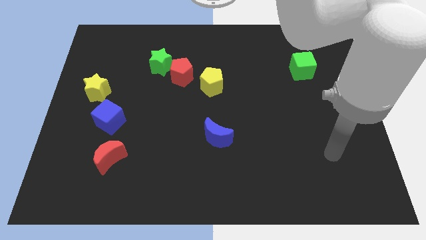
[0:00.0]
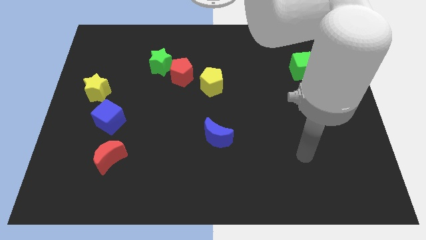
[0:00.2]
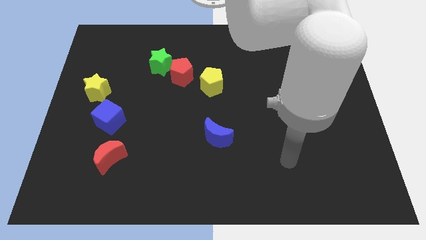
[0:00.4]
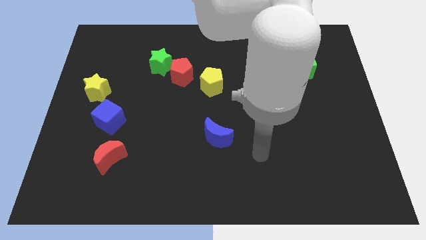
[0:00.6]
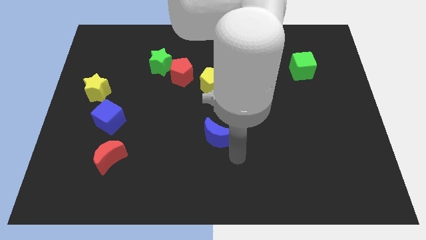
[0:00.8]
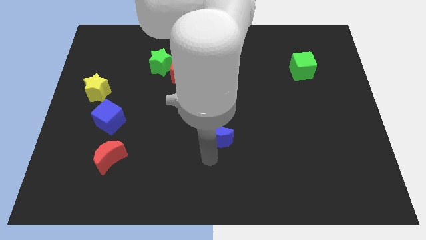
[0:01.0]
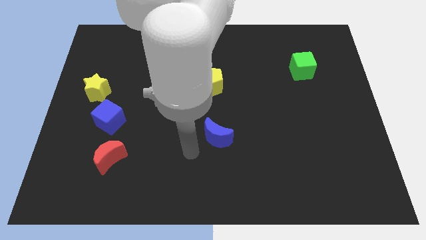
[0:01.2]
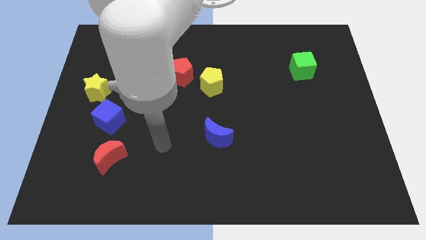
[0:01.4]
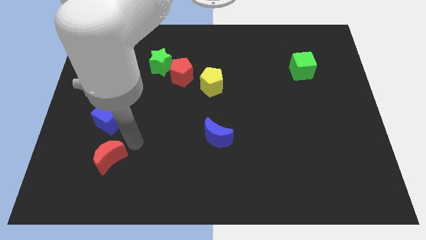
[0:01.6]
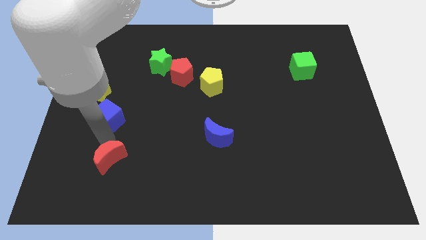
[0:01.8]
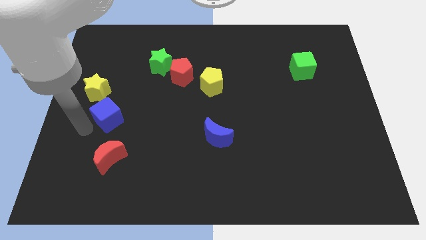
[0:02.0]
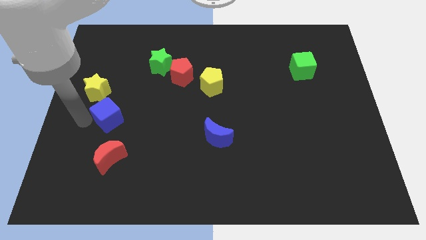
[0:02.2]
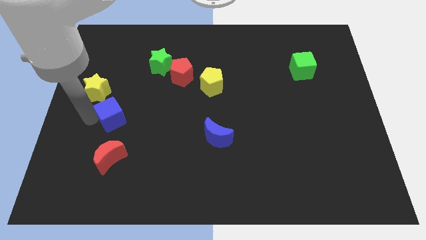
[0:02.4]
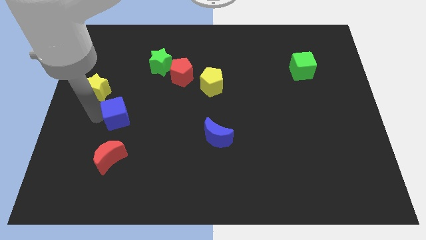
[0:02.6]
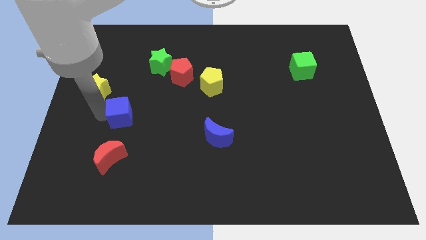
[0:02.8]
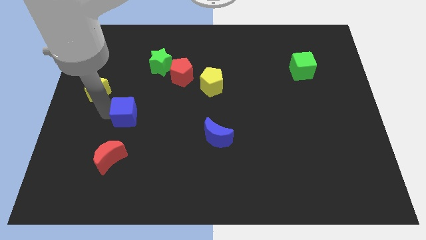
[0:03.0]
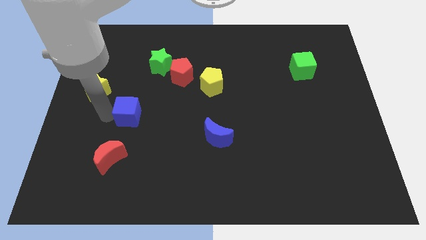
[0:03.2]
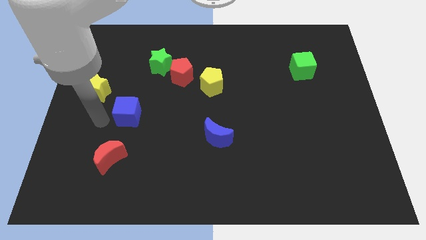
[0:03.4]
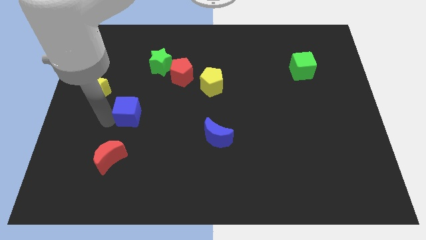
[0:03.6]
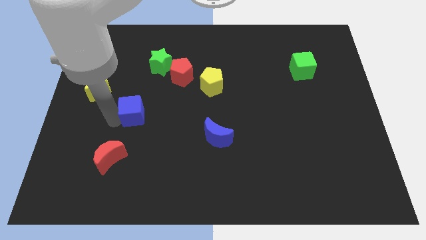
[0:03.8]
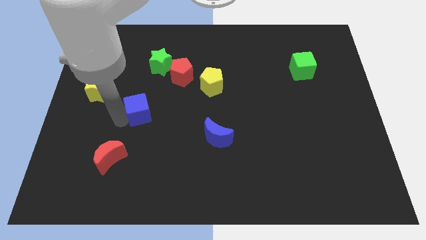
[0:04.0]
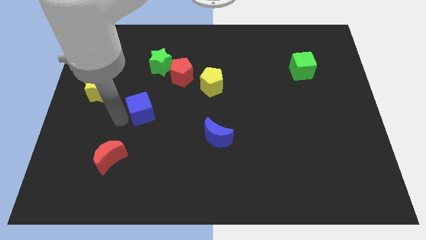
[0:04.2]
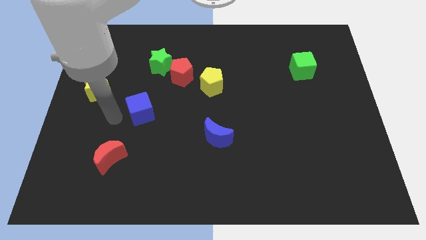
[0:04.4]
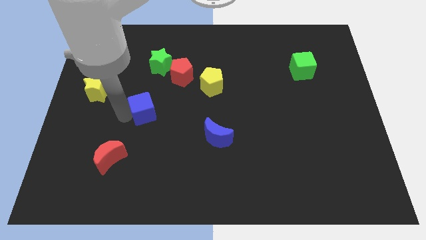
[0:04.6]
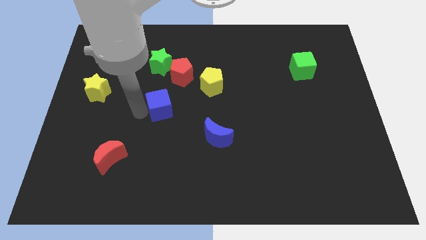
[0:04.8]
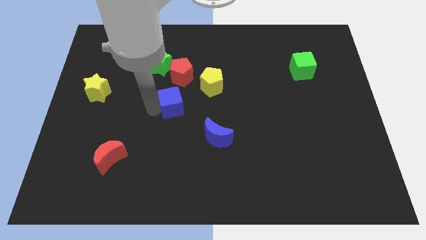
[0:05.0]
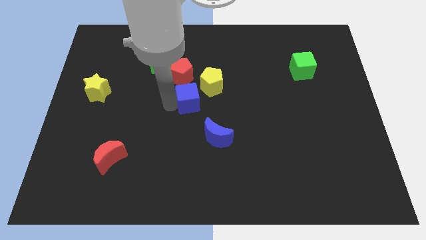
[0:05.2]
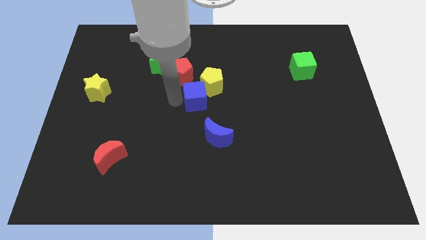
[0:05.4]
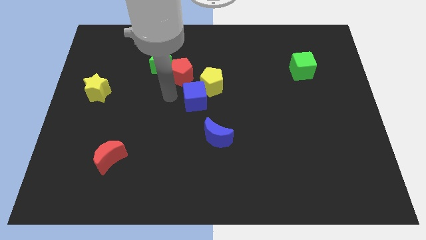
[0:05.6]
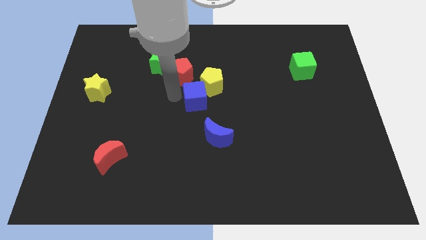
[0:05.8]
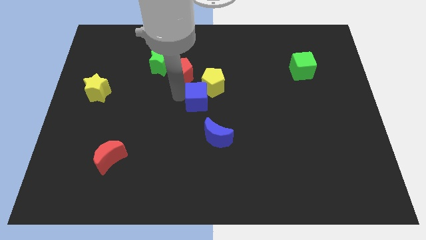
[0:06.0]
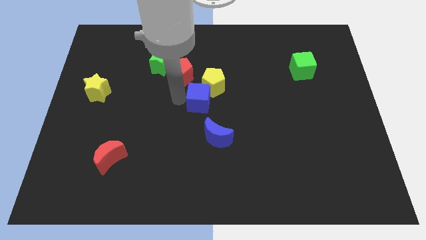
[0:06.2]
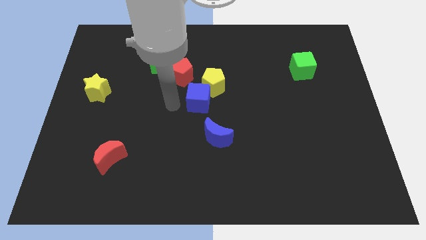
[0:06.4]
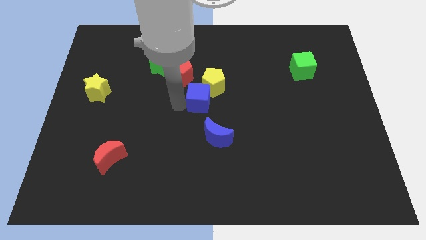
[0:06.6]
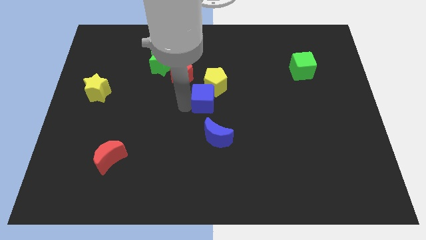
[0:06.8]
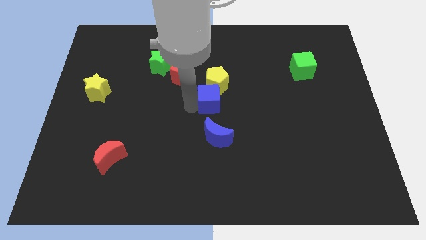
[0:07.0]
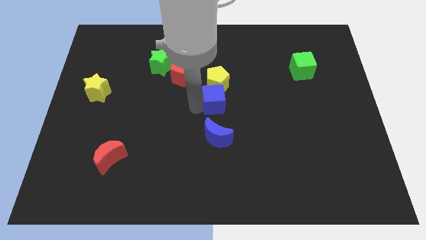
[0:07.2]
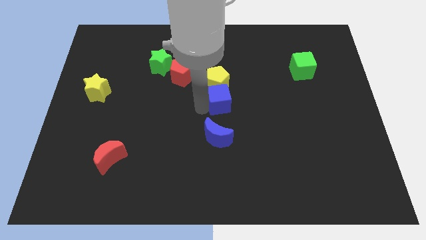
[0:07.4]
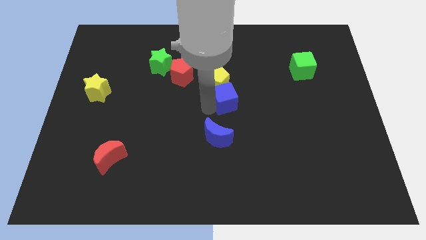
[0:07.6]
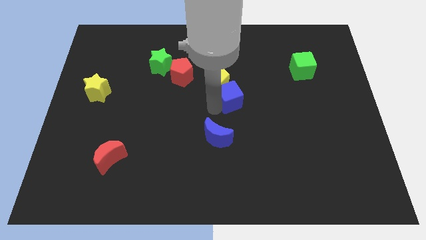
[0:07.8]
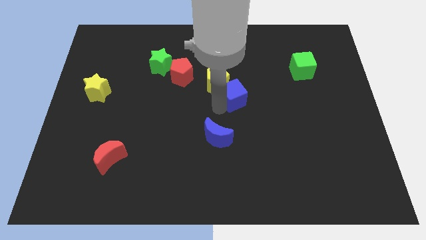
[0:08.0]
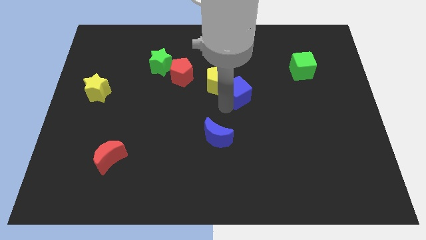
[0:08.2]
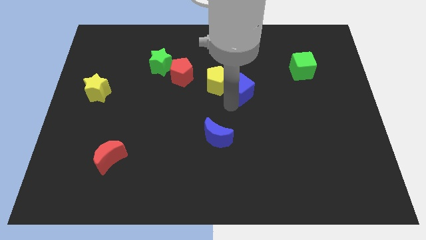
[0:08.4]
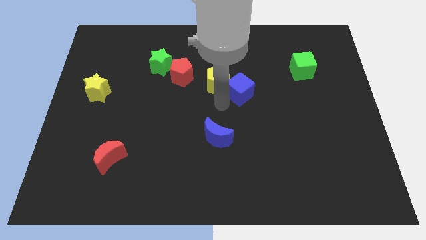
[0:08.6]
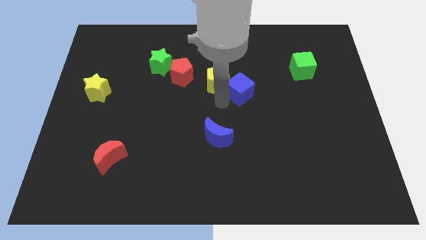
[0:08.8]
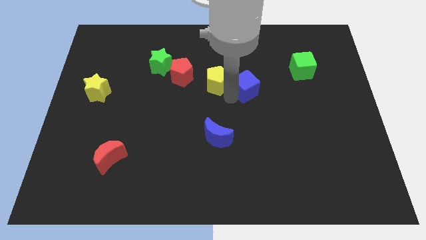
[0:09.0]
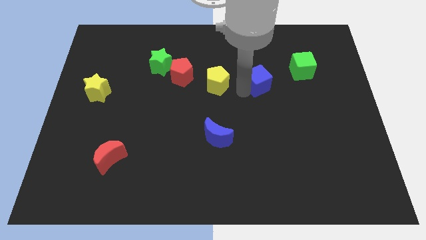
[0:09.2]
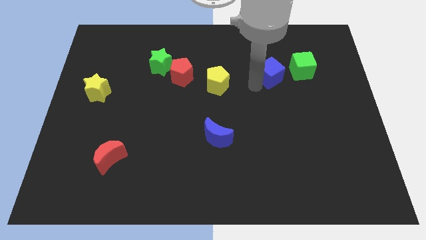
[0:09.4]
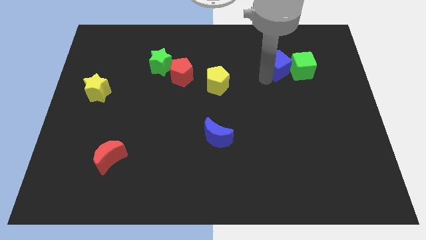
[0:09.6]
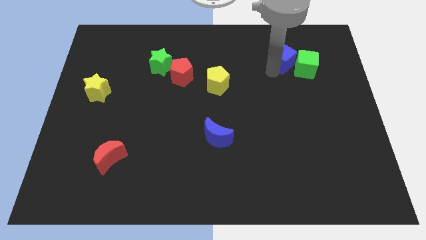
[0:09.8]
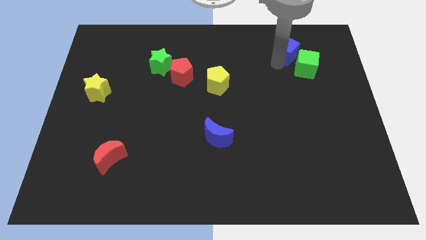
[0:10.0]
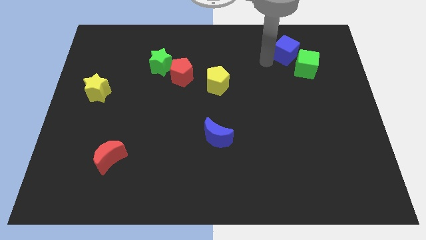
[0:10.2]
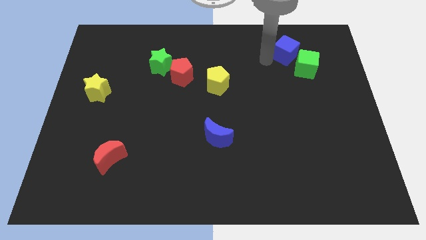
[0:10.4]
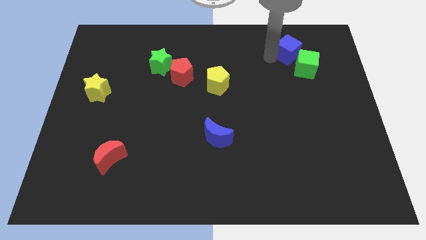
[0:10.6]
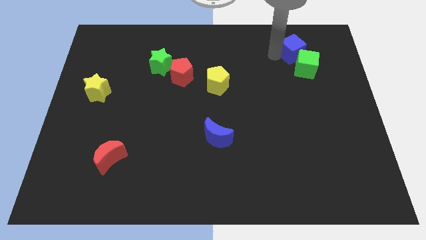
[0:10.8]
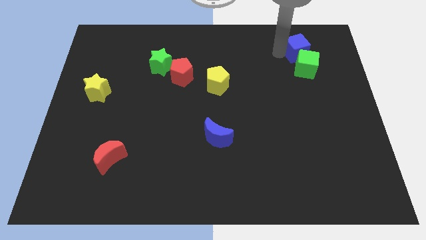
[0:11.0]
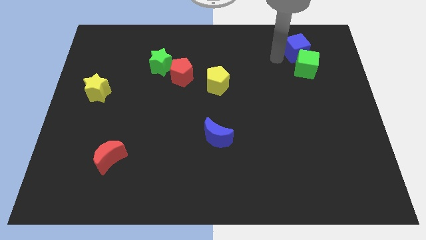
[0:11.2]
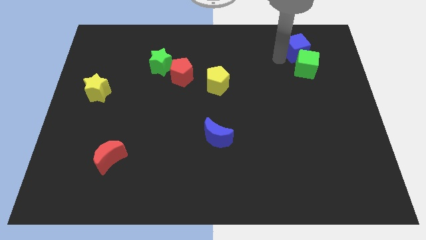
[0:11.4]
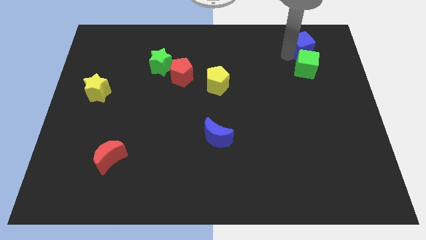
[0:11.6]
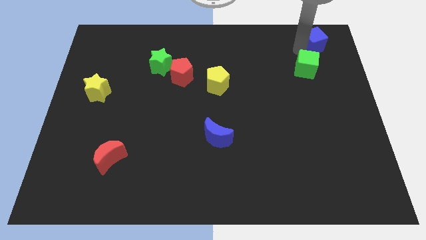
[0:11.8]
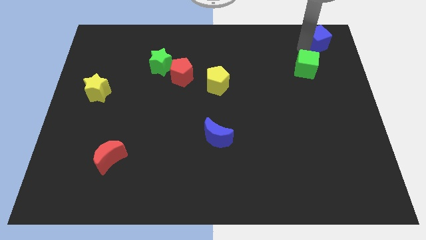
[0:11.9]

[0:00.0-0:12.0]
push the blue cube to the top right of the board
